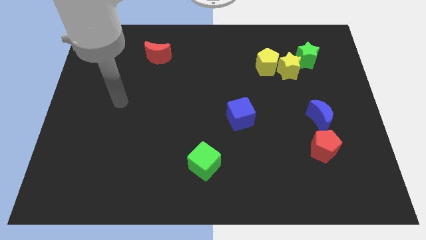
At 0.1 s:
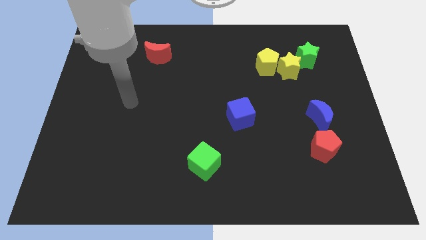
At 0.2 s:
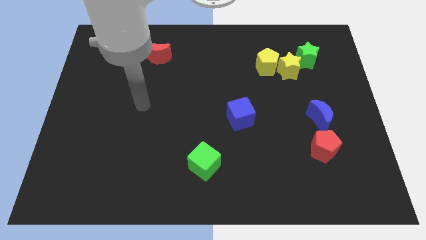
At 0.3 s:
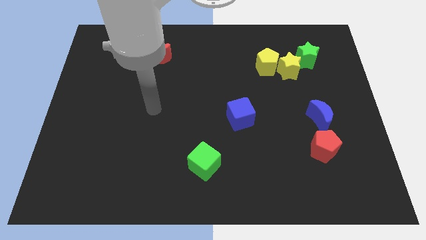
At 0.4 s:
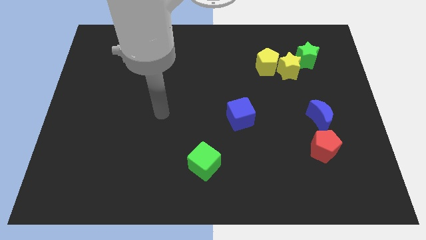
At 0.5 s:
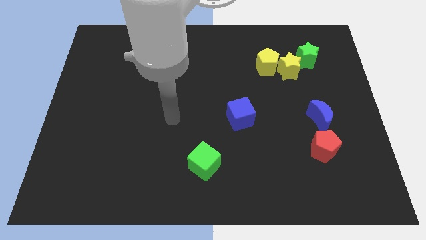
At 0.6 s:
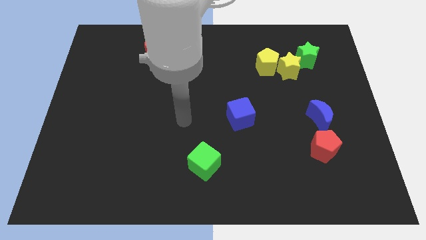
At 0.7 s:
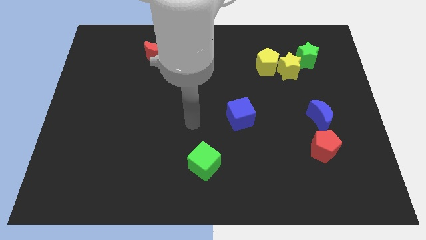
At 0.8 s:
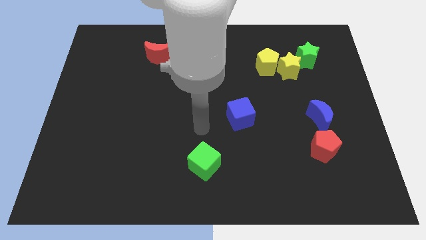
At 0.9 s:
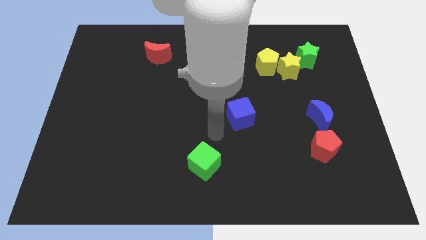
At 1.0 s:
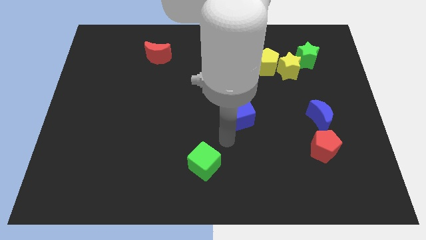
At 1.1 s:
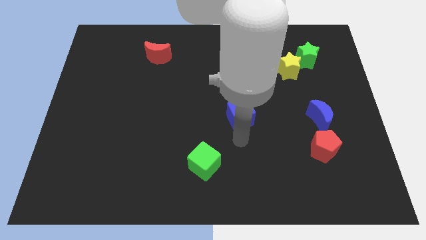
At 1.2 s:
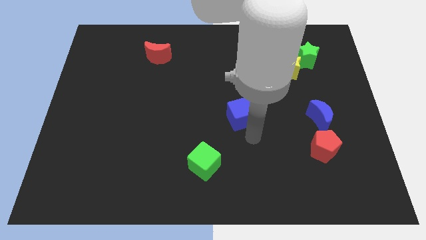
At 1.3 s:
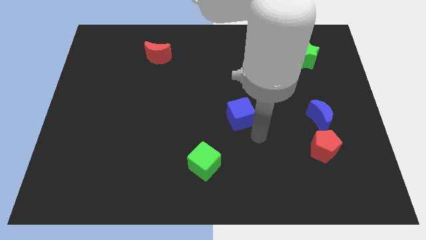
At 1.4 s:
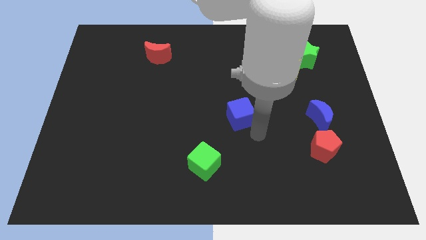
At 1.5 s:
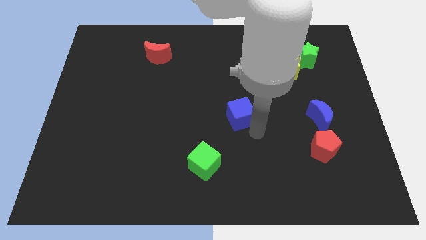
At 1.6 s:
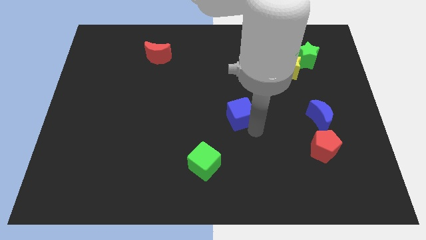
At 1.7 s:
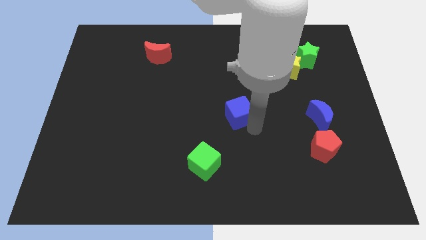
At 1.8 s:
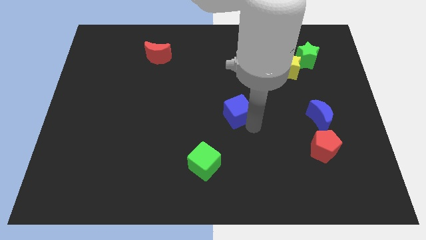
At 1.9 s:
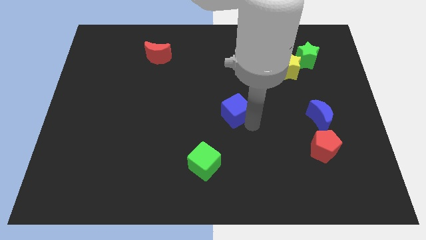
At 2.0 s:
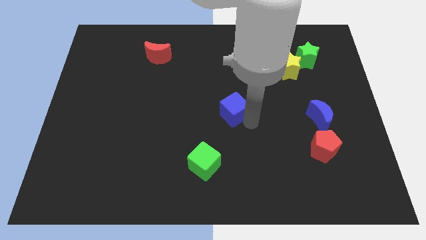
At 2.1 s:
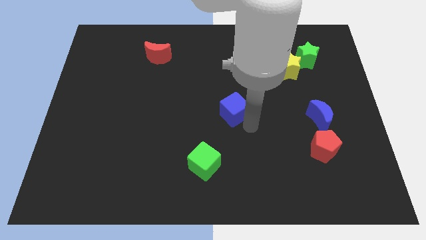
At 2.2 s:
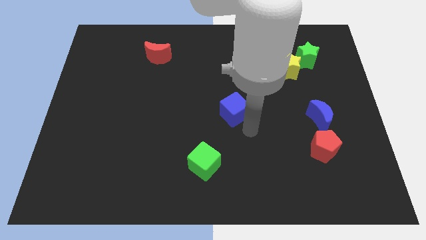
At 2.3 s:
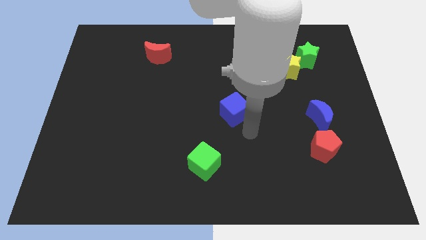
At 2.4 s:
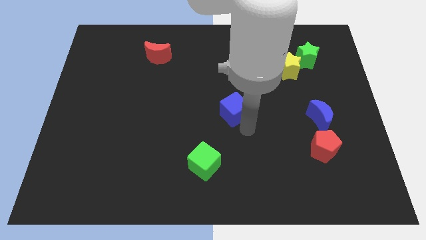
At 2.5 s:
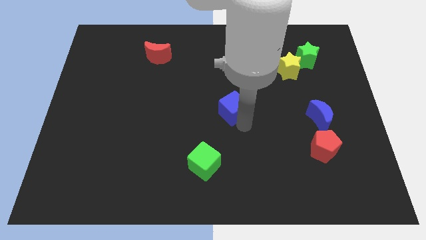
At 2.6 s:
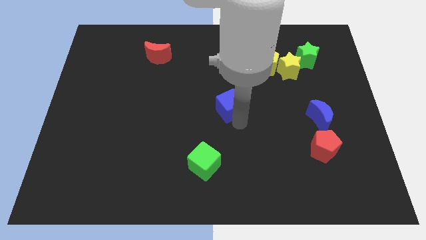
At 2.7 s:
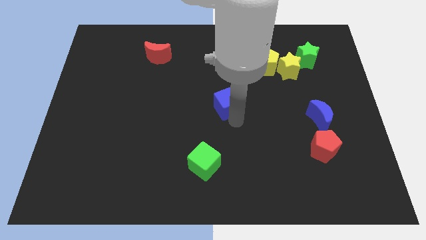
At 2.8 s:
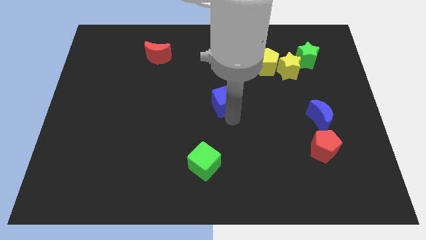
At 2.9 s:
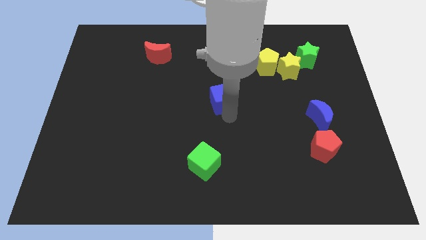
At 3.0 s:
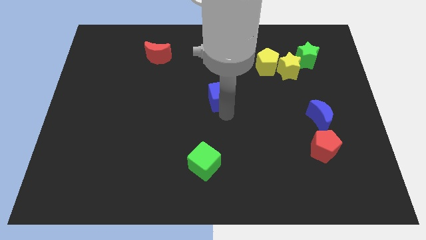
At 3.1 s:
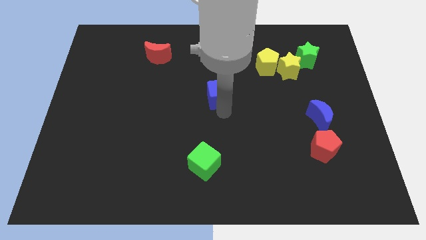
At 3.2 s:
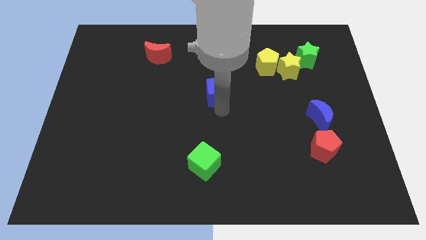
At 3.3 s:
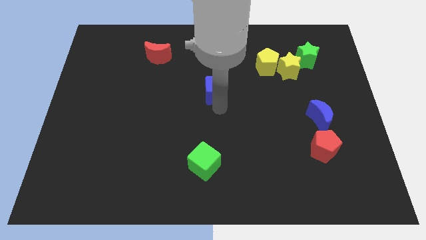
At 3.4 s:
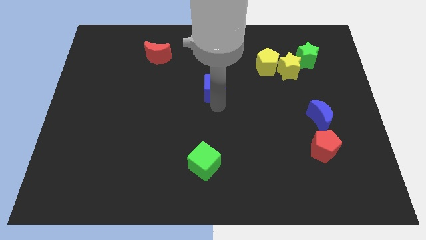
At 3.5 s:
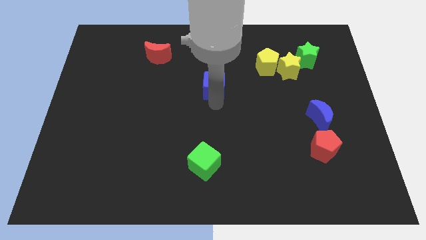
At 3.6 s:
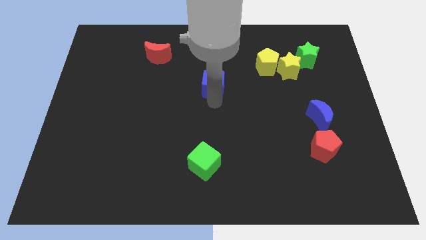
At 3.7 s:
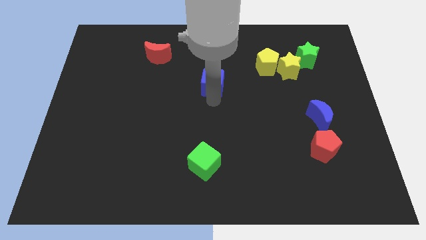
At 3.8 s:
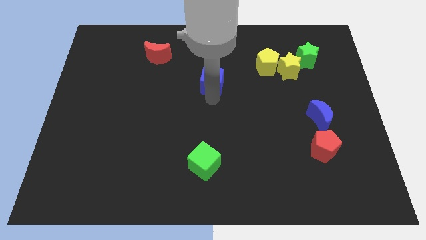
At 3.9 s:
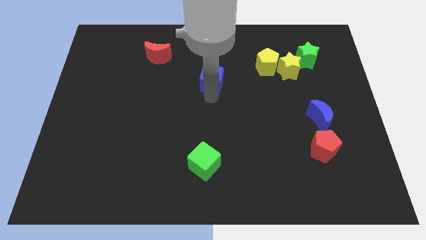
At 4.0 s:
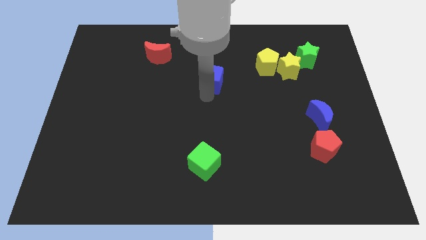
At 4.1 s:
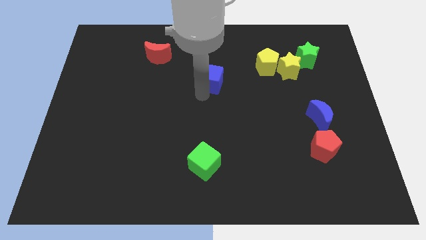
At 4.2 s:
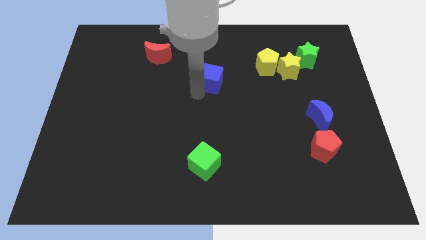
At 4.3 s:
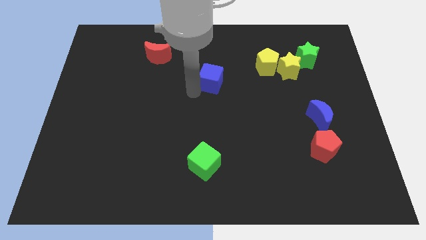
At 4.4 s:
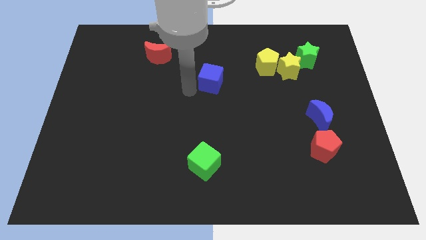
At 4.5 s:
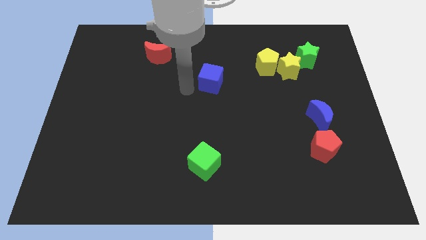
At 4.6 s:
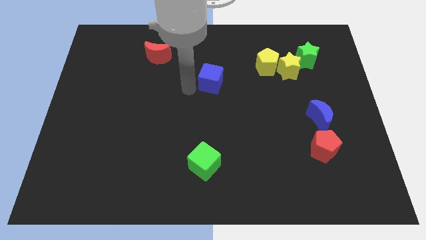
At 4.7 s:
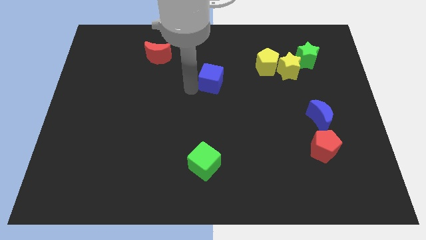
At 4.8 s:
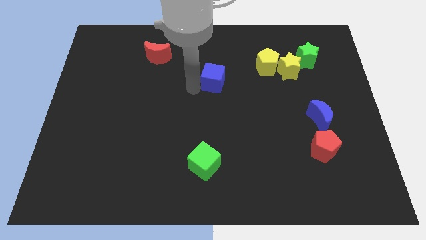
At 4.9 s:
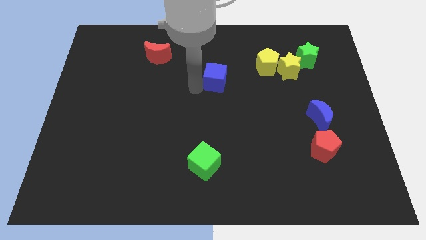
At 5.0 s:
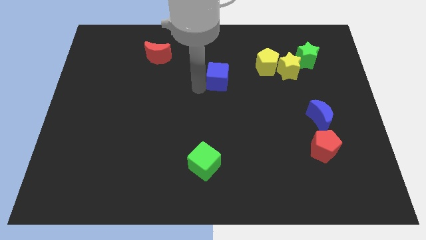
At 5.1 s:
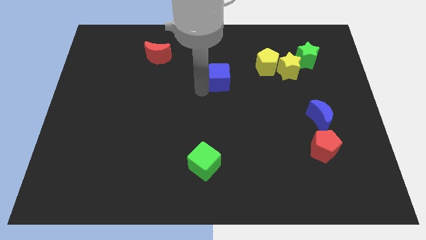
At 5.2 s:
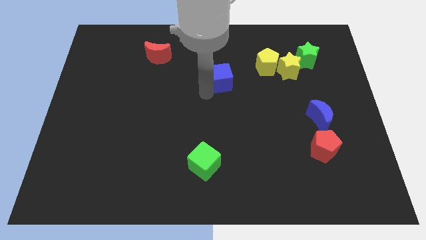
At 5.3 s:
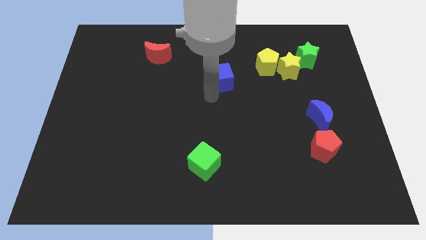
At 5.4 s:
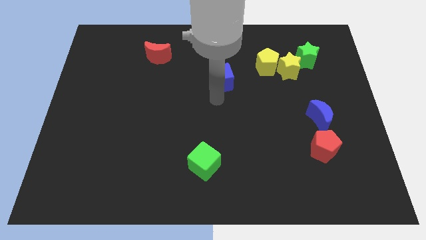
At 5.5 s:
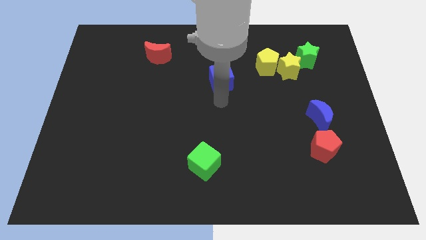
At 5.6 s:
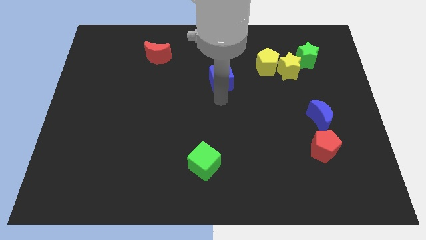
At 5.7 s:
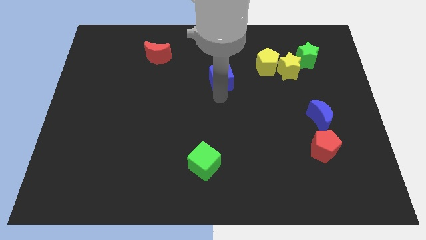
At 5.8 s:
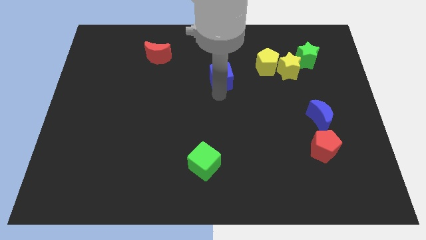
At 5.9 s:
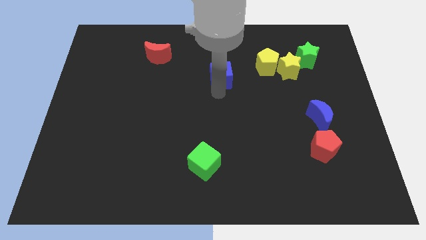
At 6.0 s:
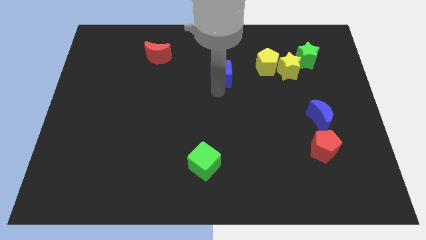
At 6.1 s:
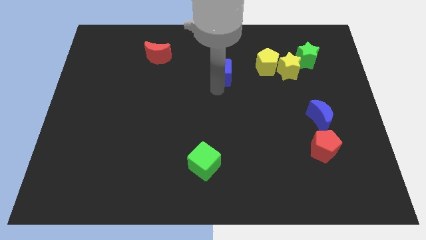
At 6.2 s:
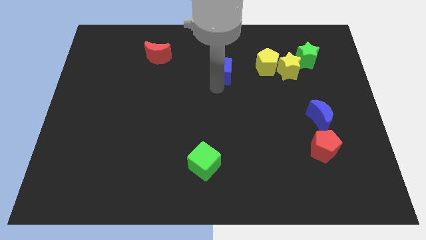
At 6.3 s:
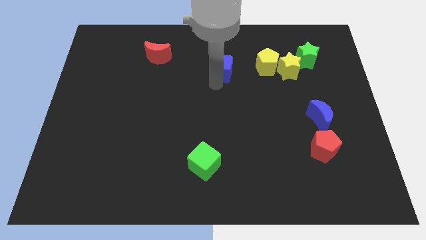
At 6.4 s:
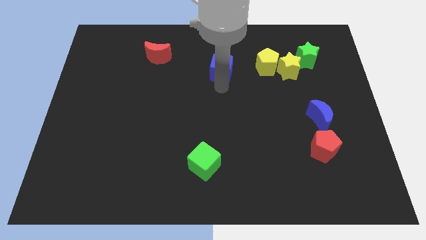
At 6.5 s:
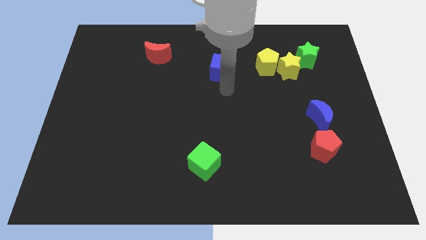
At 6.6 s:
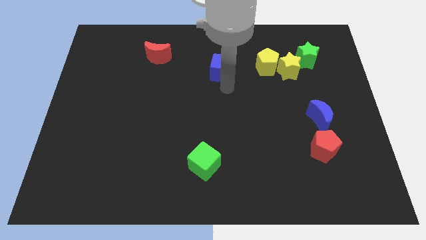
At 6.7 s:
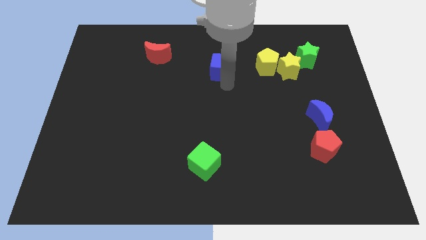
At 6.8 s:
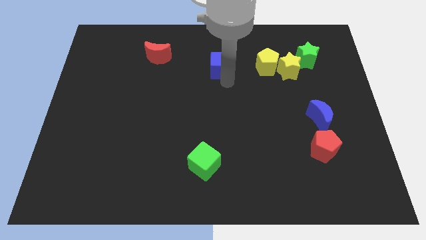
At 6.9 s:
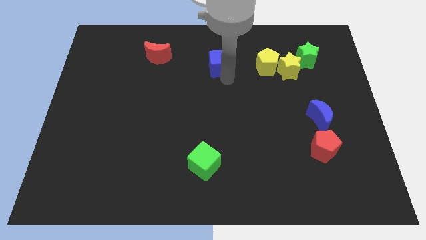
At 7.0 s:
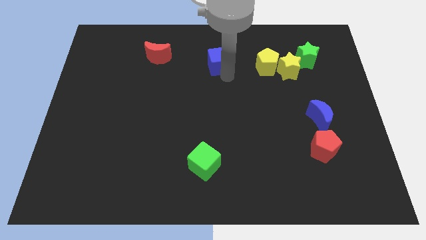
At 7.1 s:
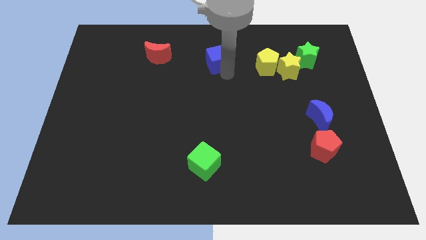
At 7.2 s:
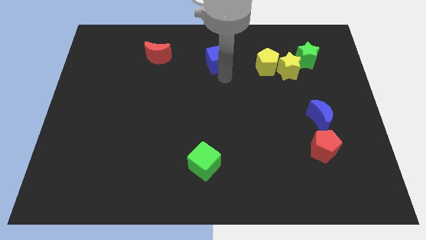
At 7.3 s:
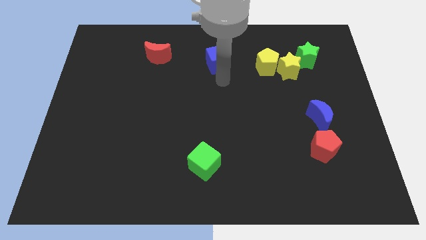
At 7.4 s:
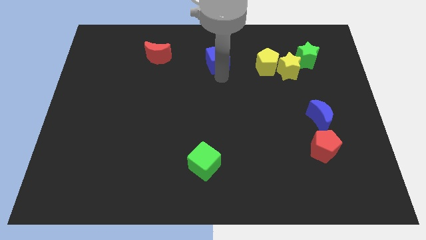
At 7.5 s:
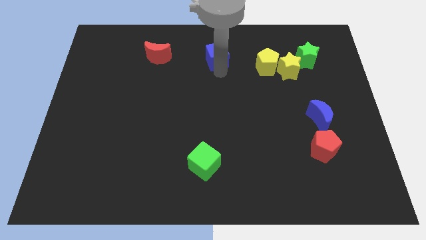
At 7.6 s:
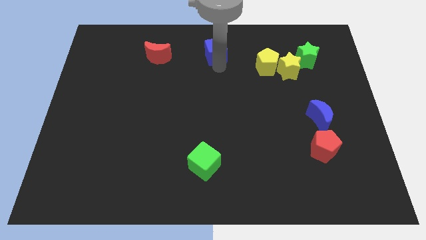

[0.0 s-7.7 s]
put the blue cube to the top
